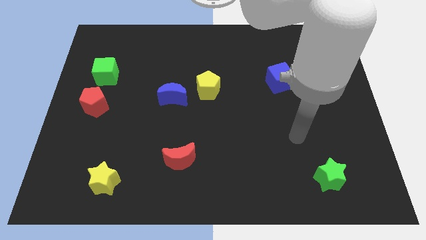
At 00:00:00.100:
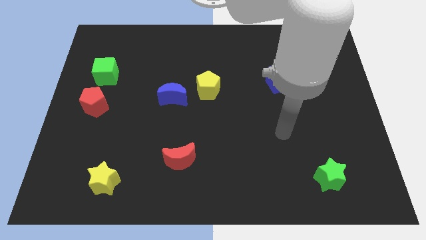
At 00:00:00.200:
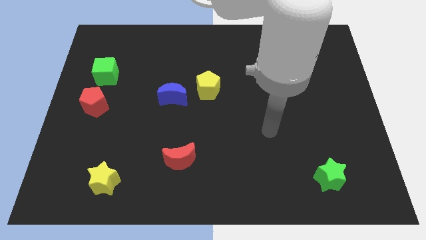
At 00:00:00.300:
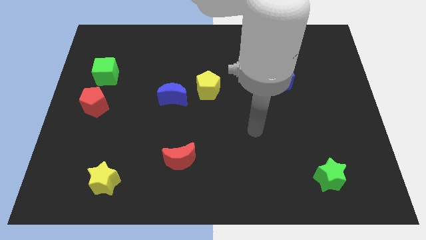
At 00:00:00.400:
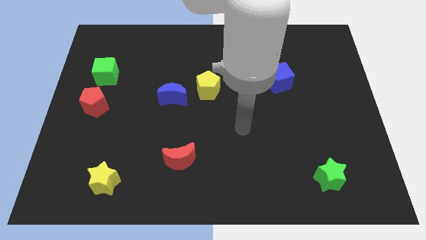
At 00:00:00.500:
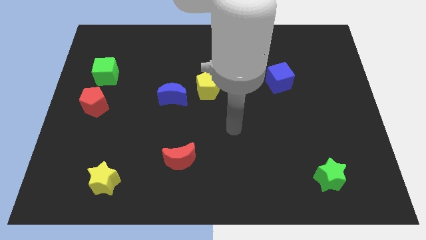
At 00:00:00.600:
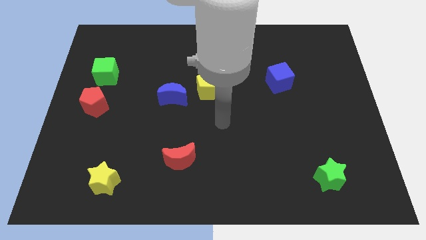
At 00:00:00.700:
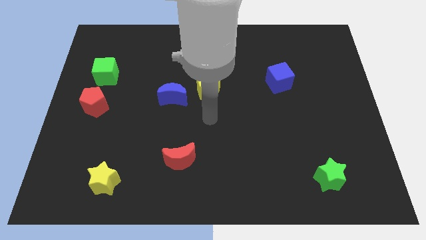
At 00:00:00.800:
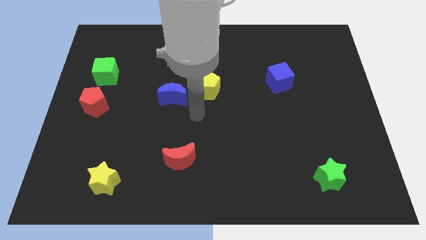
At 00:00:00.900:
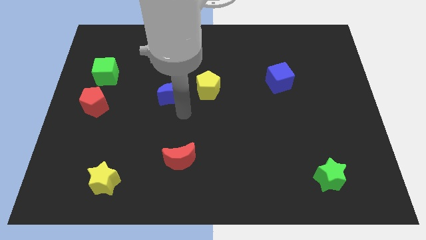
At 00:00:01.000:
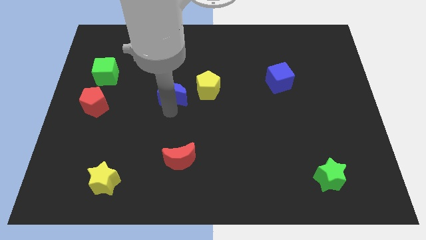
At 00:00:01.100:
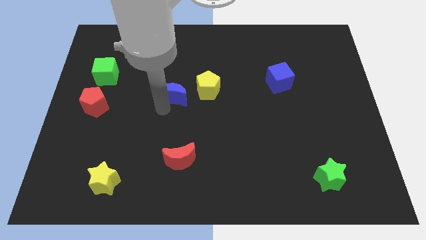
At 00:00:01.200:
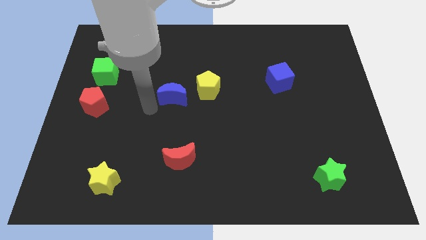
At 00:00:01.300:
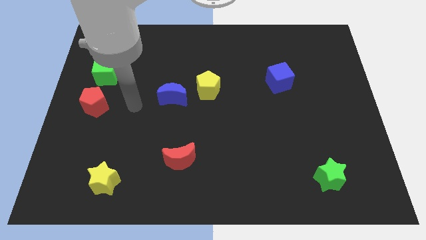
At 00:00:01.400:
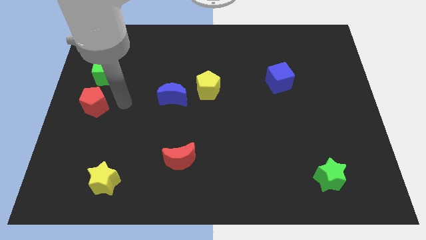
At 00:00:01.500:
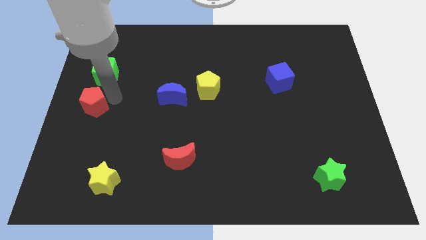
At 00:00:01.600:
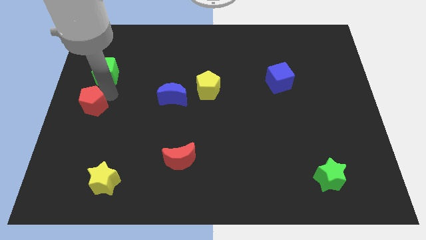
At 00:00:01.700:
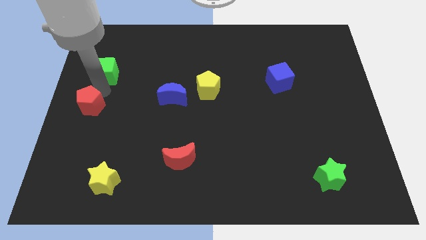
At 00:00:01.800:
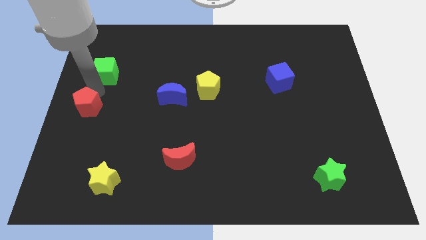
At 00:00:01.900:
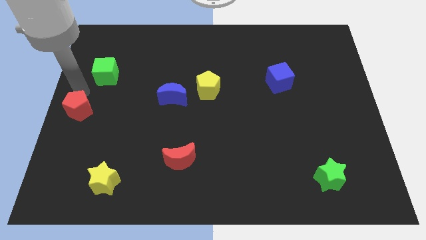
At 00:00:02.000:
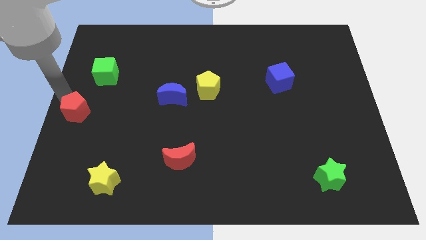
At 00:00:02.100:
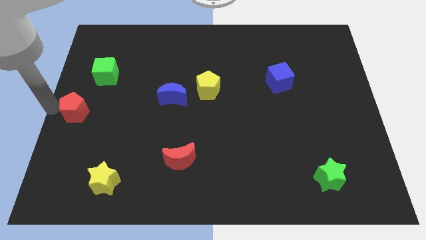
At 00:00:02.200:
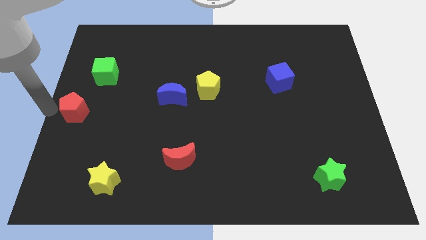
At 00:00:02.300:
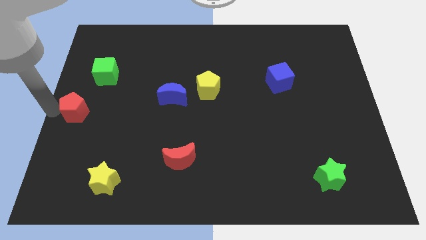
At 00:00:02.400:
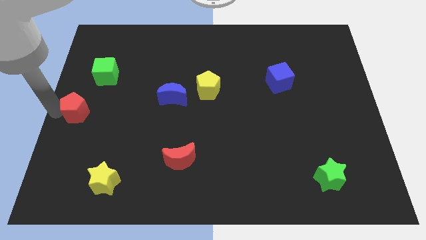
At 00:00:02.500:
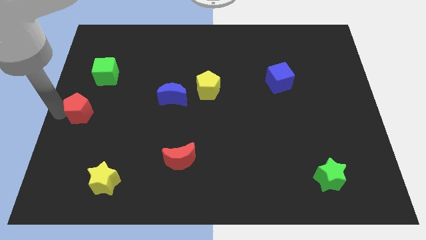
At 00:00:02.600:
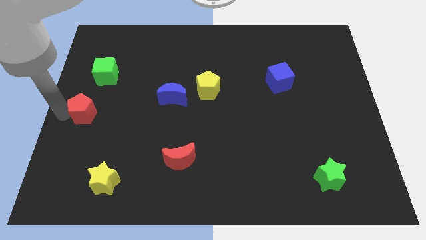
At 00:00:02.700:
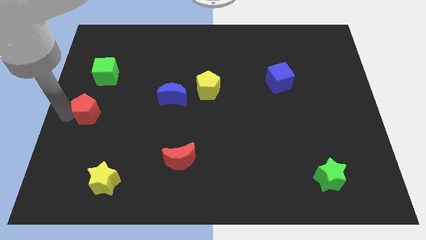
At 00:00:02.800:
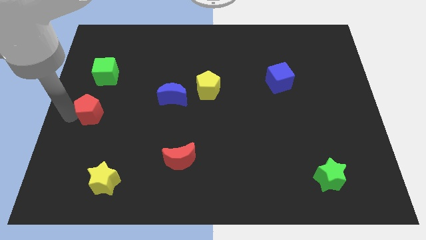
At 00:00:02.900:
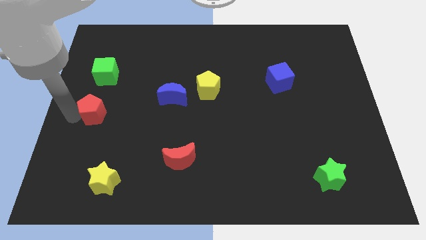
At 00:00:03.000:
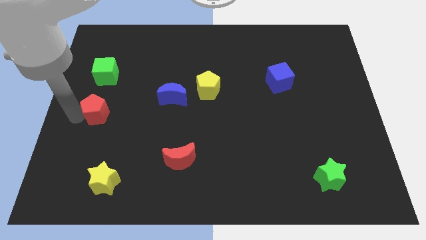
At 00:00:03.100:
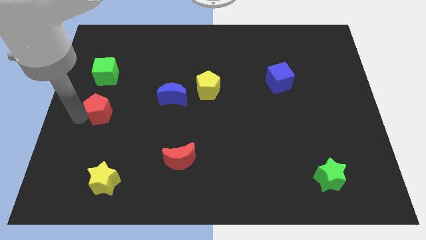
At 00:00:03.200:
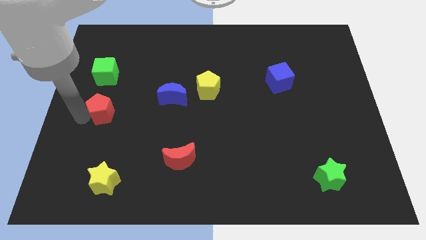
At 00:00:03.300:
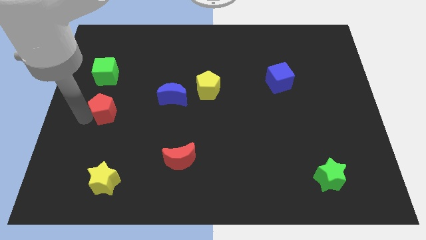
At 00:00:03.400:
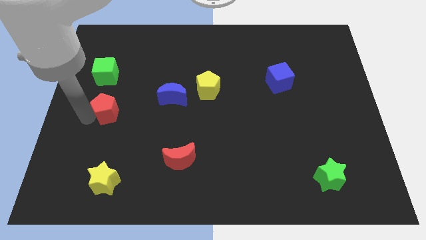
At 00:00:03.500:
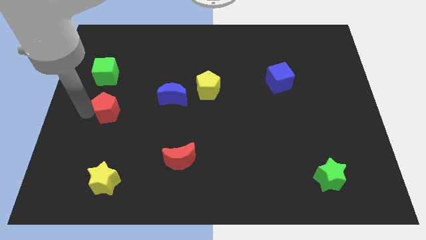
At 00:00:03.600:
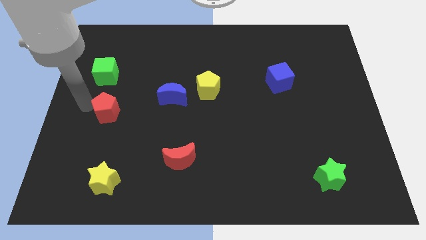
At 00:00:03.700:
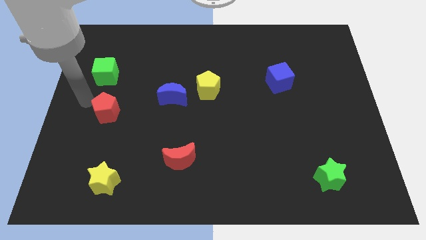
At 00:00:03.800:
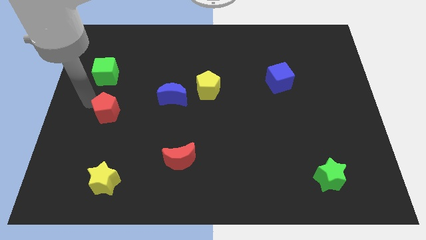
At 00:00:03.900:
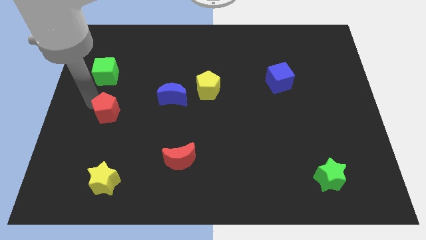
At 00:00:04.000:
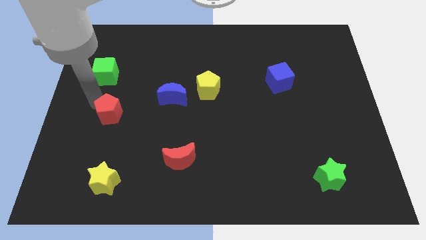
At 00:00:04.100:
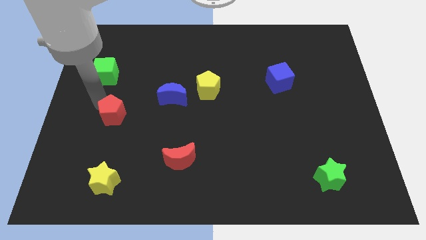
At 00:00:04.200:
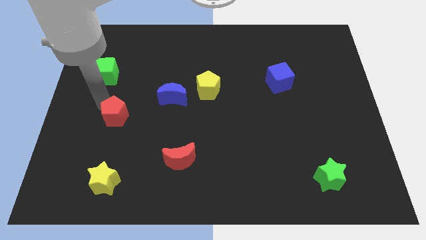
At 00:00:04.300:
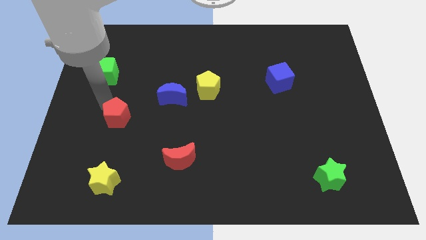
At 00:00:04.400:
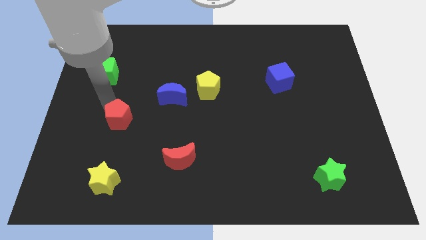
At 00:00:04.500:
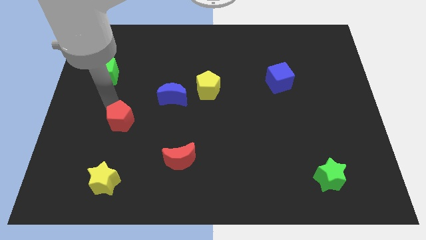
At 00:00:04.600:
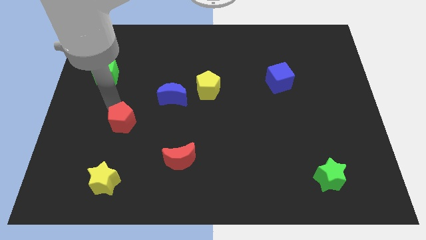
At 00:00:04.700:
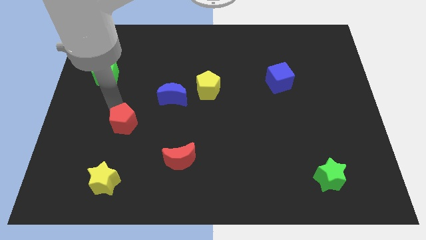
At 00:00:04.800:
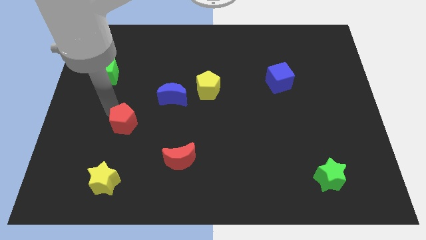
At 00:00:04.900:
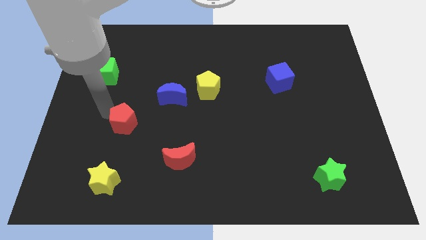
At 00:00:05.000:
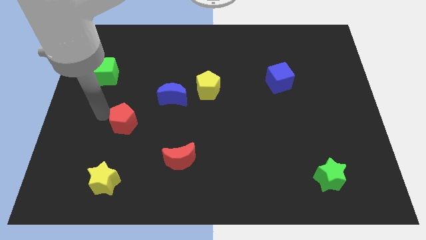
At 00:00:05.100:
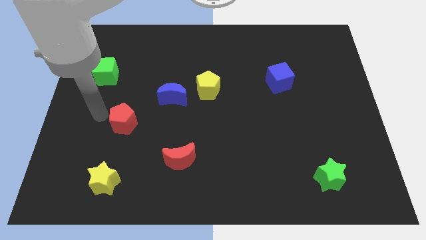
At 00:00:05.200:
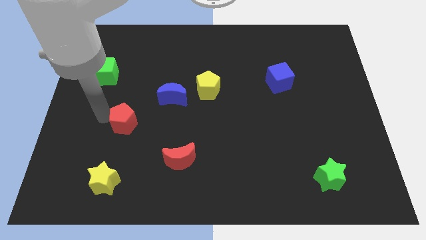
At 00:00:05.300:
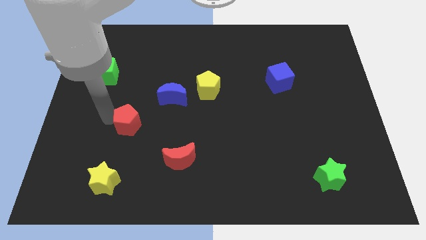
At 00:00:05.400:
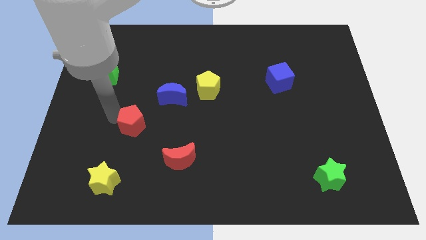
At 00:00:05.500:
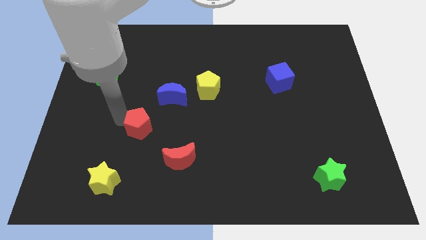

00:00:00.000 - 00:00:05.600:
push the red pentagon to the top left side of the red moon
